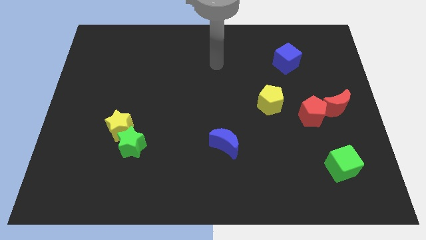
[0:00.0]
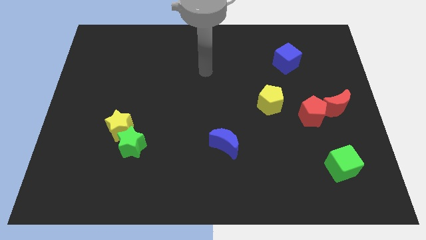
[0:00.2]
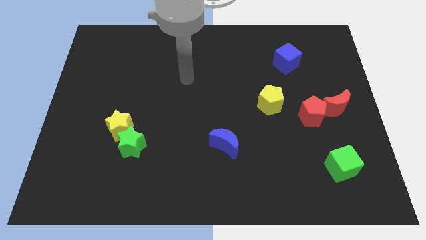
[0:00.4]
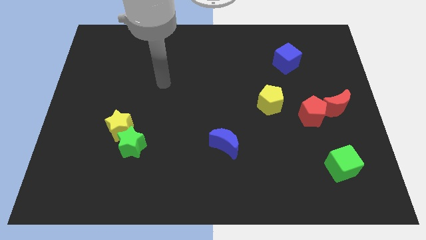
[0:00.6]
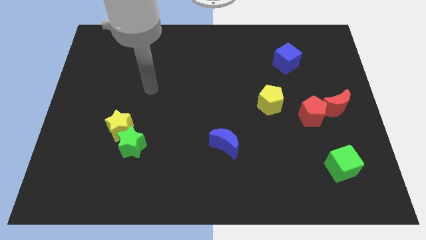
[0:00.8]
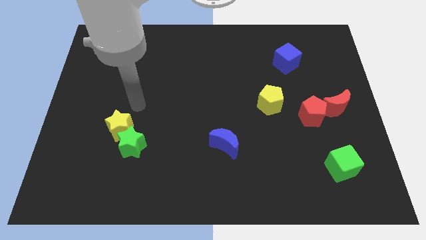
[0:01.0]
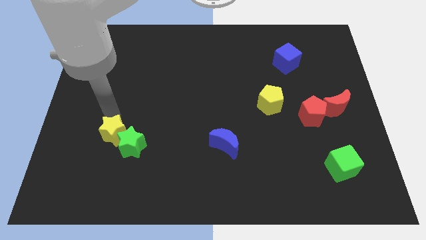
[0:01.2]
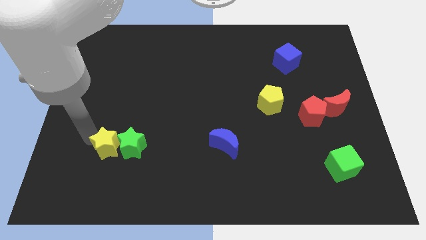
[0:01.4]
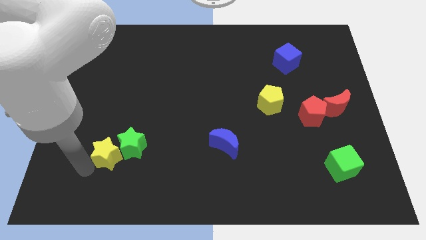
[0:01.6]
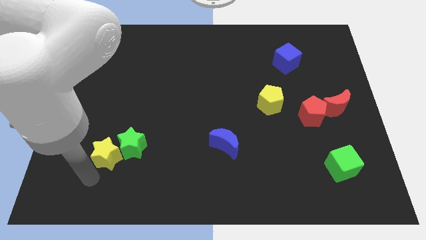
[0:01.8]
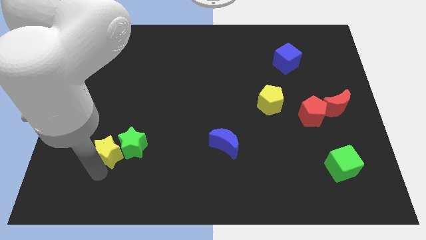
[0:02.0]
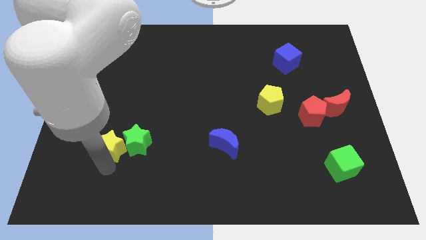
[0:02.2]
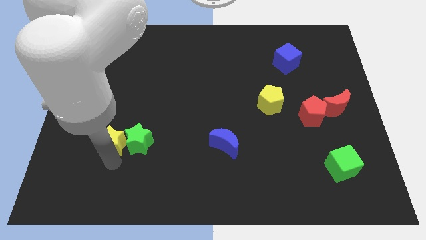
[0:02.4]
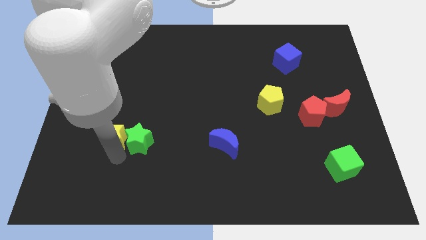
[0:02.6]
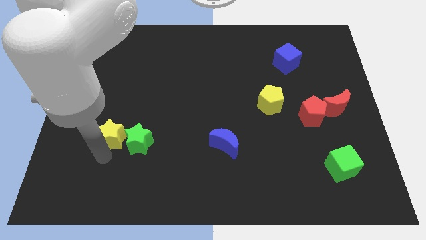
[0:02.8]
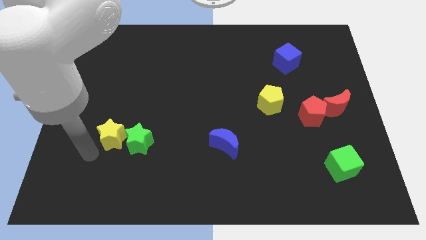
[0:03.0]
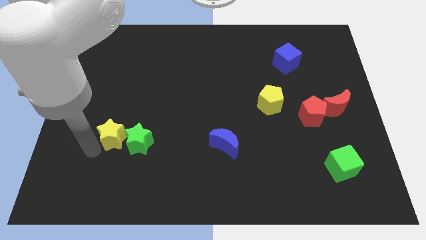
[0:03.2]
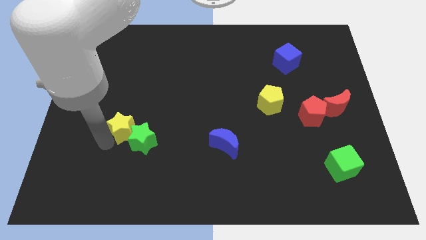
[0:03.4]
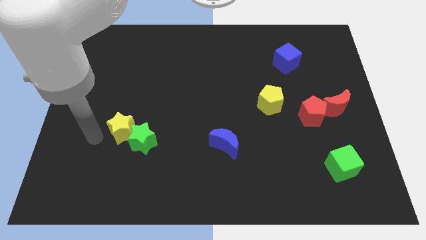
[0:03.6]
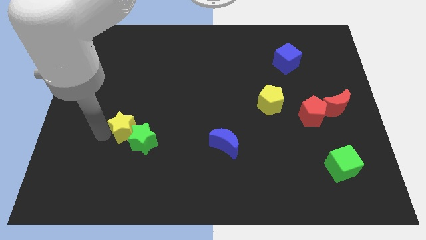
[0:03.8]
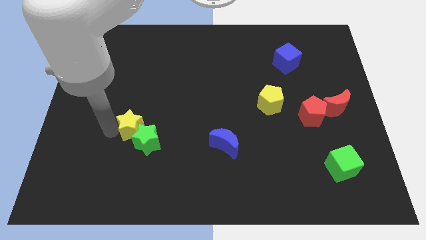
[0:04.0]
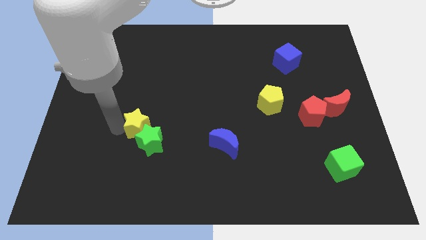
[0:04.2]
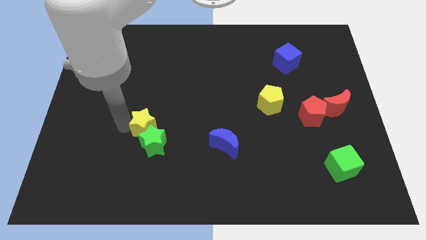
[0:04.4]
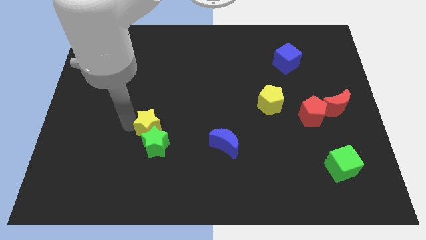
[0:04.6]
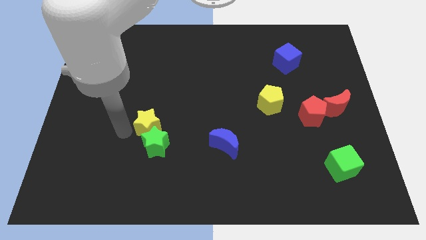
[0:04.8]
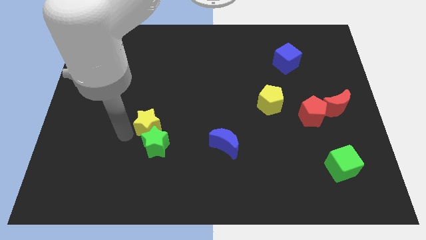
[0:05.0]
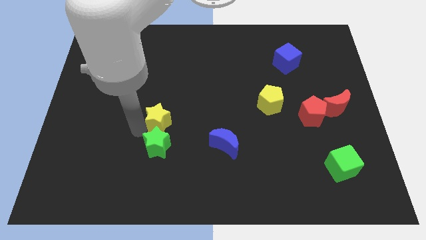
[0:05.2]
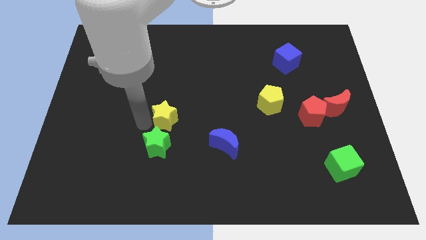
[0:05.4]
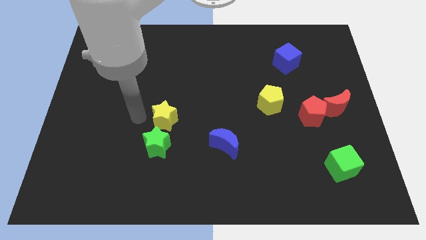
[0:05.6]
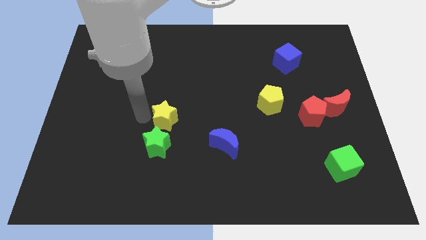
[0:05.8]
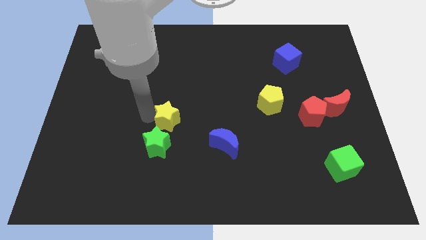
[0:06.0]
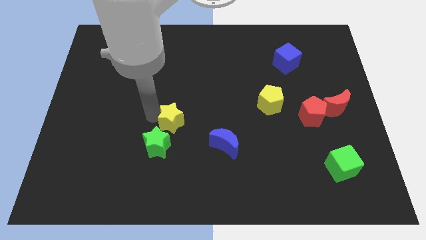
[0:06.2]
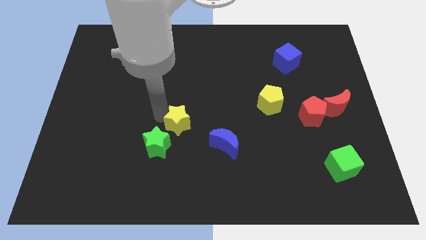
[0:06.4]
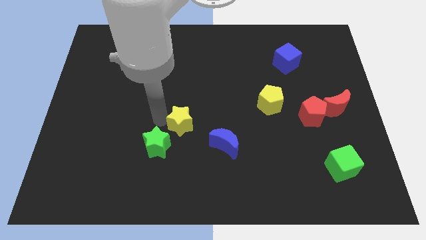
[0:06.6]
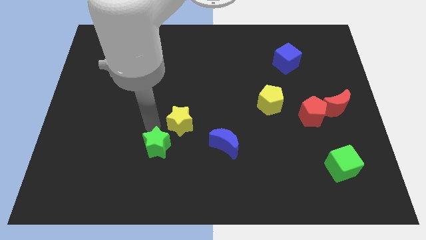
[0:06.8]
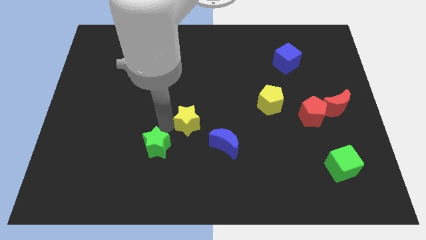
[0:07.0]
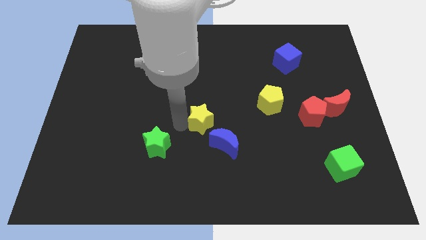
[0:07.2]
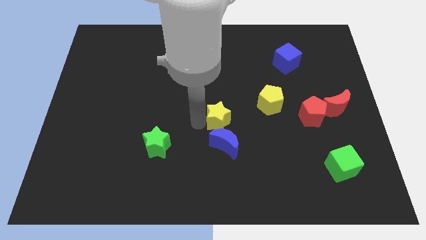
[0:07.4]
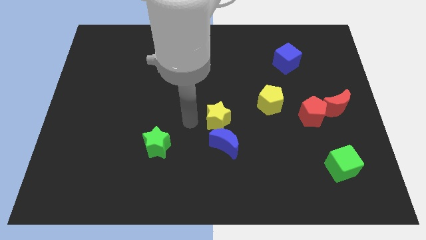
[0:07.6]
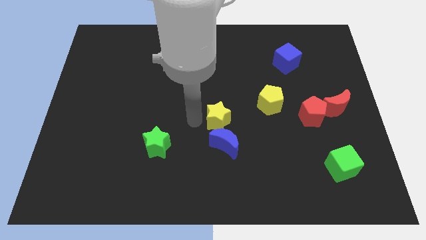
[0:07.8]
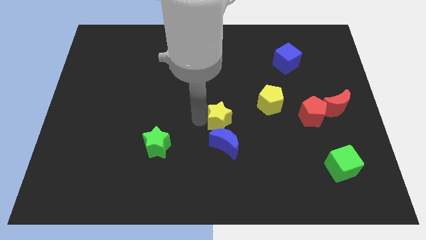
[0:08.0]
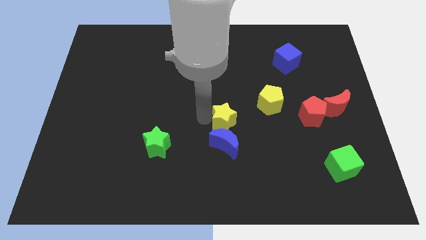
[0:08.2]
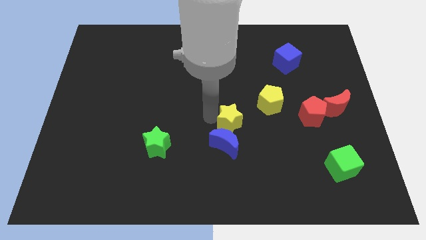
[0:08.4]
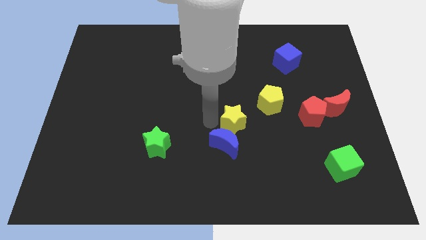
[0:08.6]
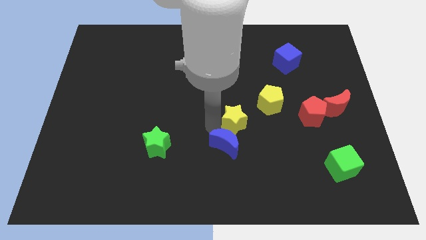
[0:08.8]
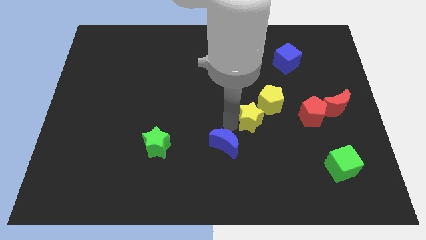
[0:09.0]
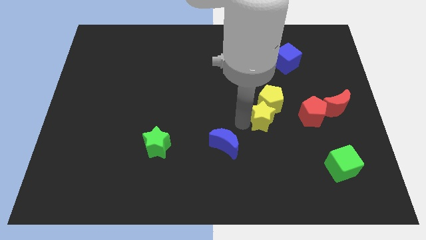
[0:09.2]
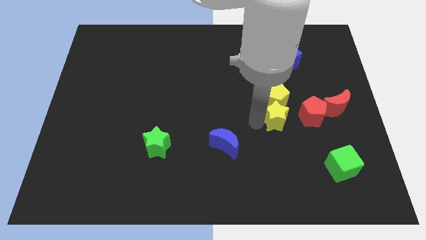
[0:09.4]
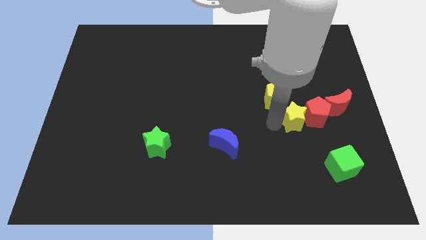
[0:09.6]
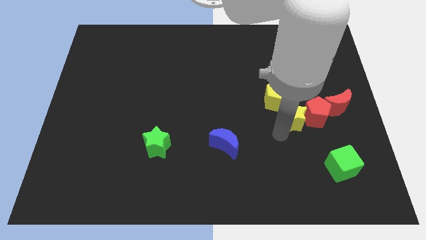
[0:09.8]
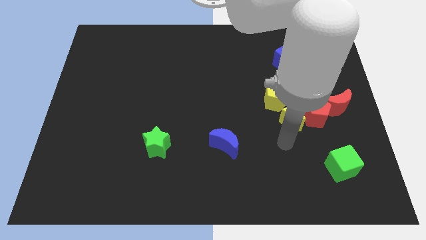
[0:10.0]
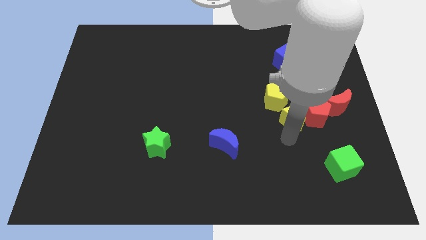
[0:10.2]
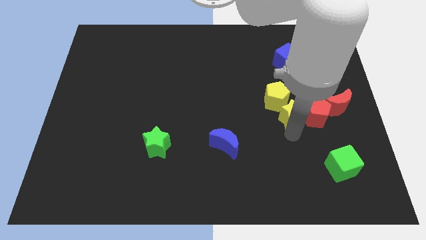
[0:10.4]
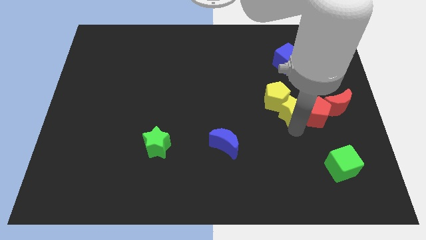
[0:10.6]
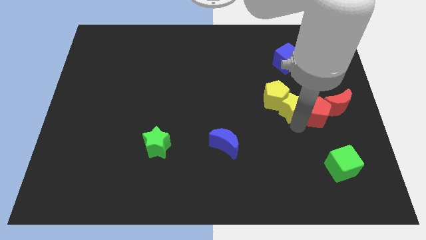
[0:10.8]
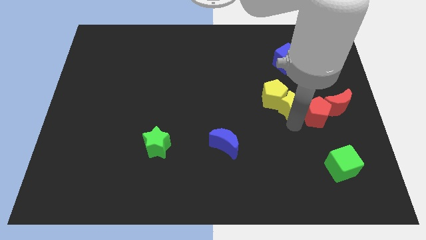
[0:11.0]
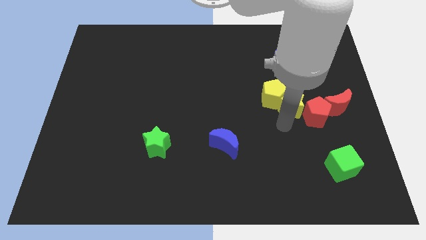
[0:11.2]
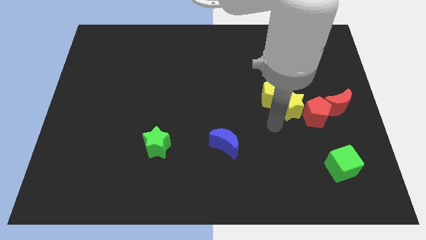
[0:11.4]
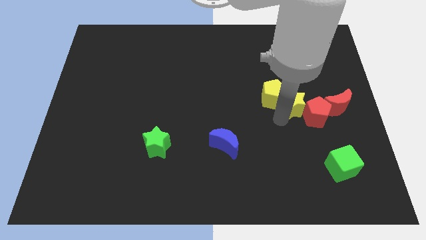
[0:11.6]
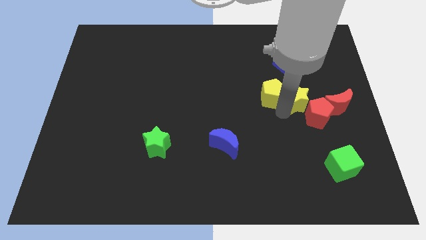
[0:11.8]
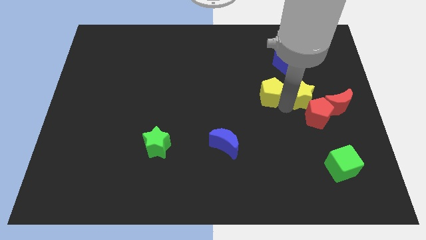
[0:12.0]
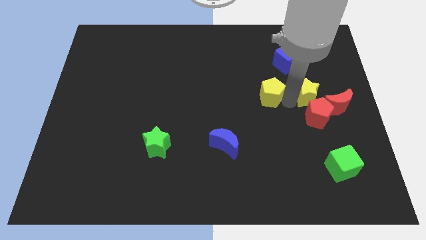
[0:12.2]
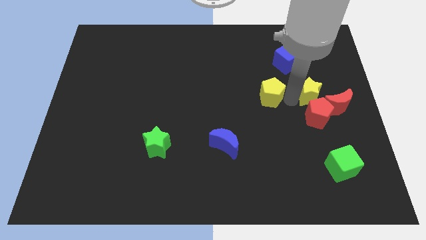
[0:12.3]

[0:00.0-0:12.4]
move the yellow star to the top right of the red pentagon

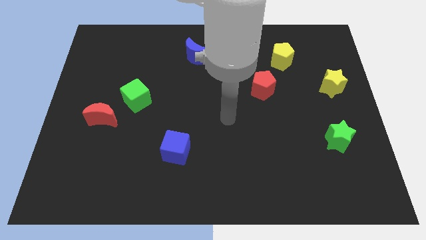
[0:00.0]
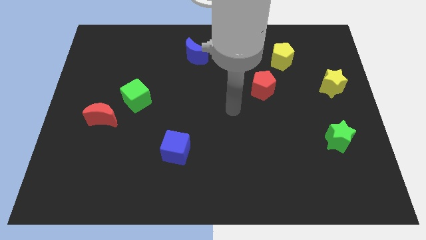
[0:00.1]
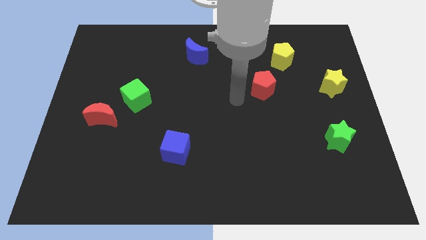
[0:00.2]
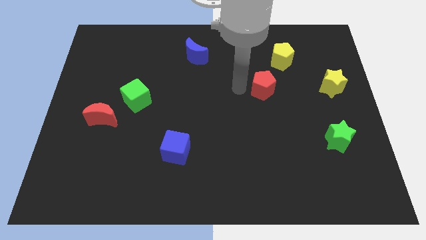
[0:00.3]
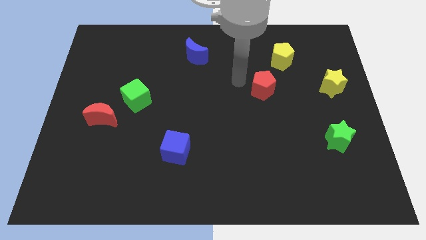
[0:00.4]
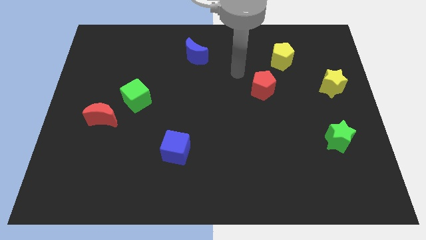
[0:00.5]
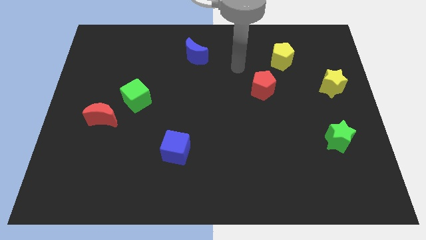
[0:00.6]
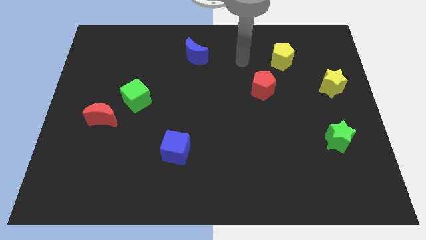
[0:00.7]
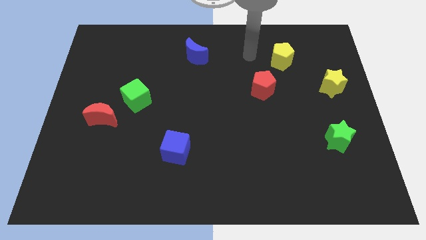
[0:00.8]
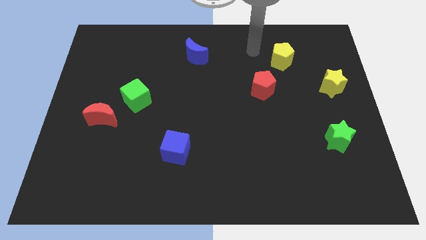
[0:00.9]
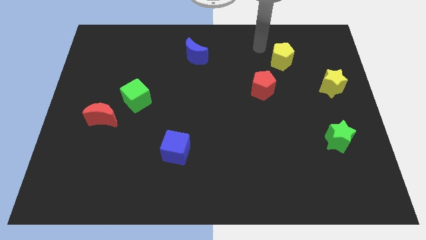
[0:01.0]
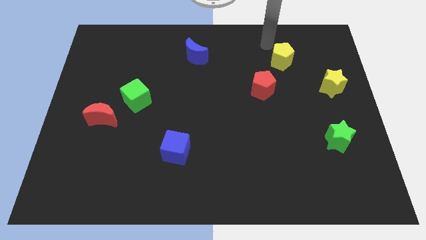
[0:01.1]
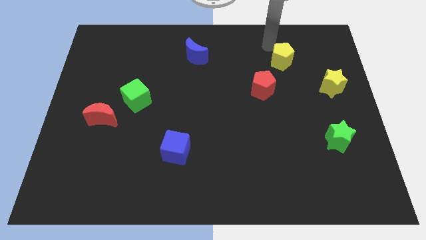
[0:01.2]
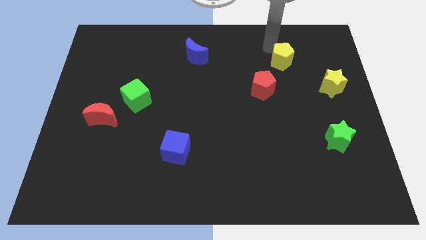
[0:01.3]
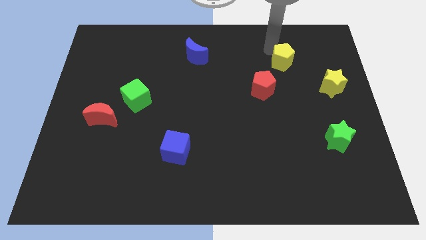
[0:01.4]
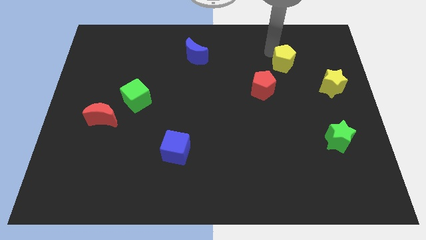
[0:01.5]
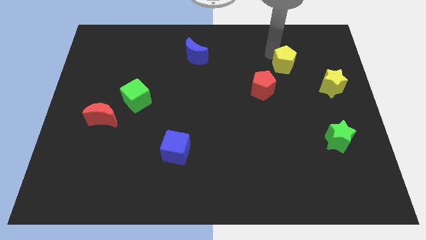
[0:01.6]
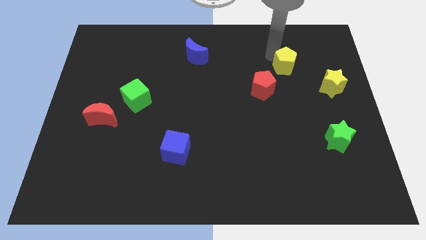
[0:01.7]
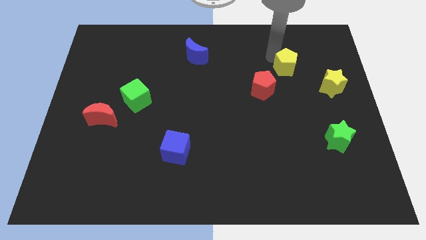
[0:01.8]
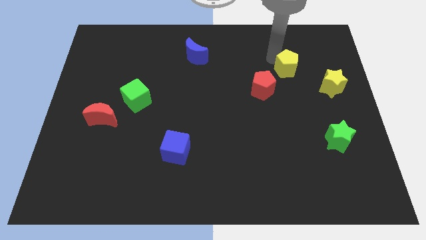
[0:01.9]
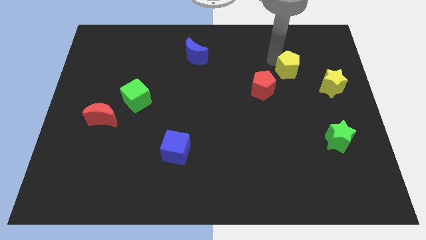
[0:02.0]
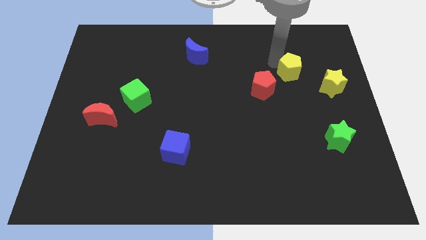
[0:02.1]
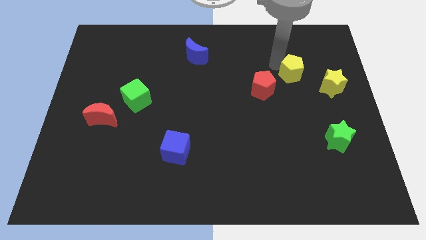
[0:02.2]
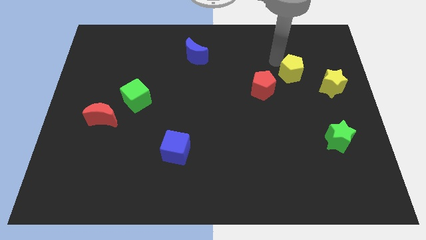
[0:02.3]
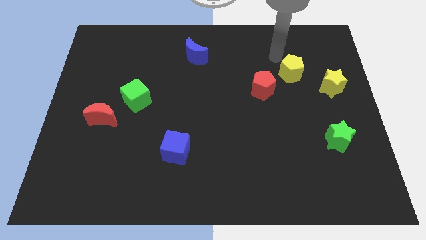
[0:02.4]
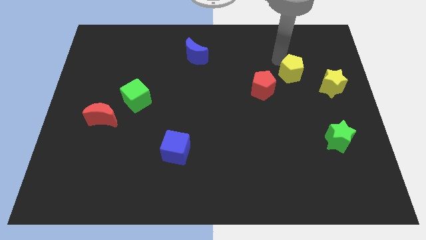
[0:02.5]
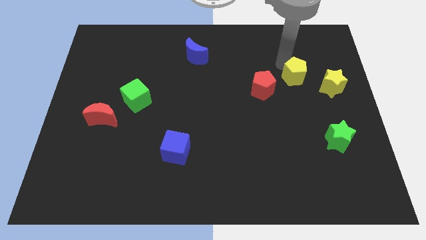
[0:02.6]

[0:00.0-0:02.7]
slide the yellow pentagon just right of the red pentagon
